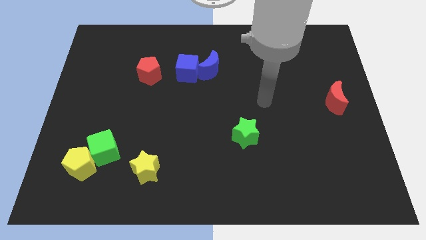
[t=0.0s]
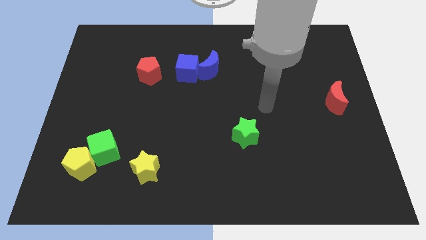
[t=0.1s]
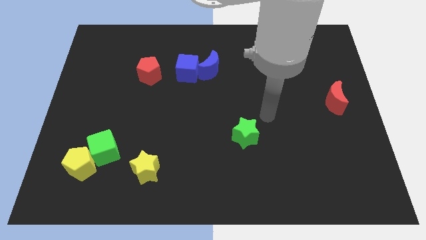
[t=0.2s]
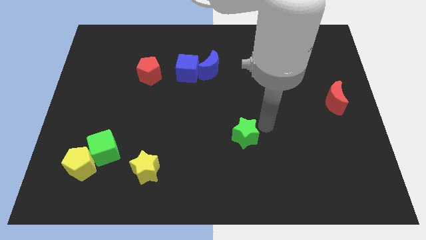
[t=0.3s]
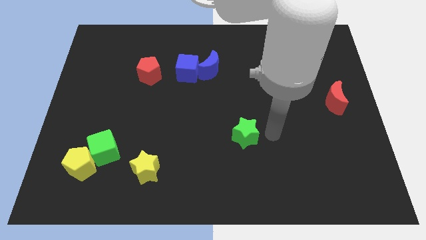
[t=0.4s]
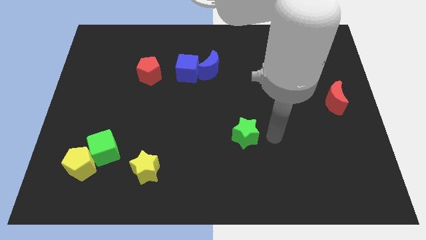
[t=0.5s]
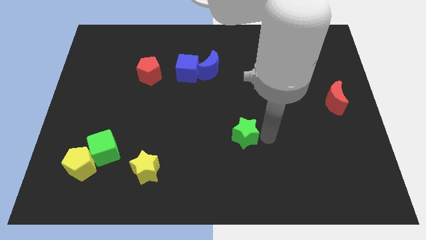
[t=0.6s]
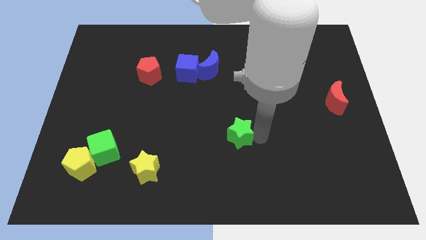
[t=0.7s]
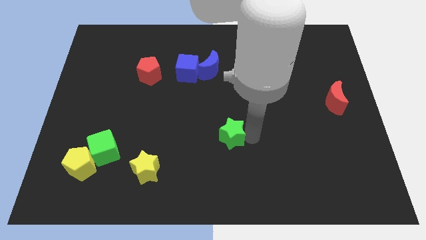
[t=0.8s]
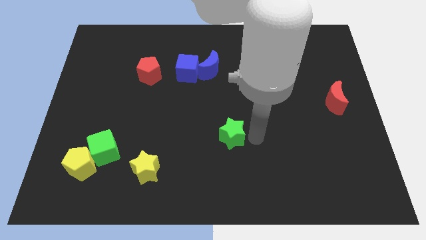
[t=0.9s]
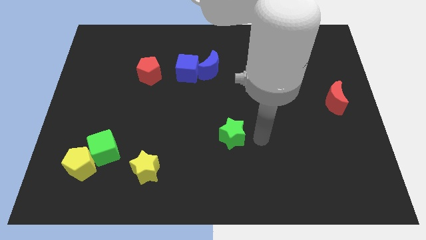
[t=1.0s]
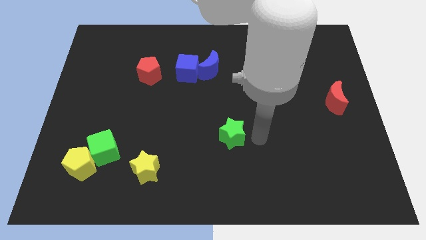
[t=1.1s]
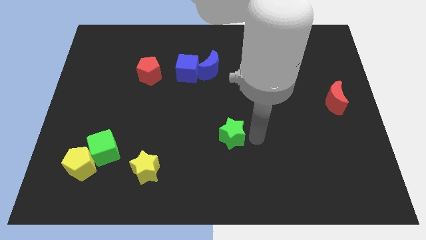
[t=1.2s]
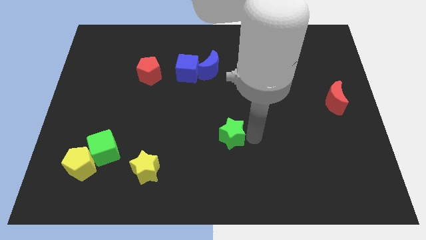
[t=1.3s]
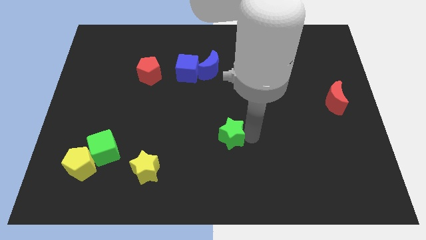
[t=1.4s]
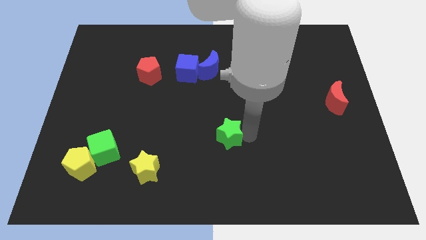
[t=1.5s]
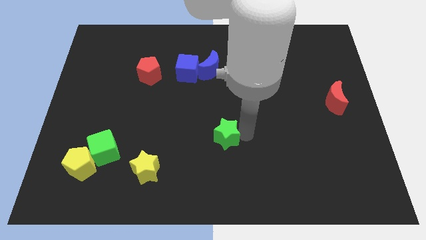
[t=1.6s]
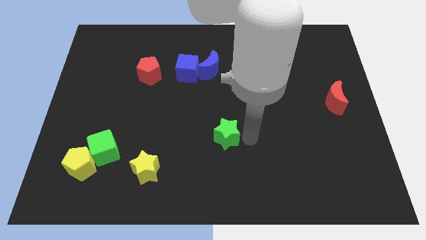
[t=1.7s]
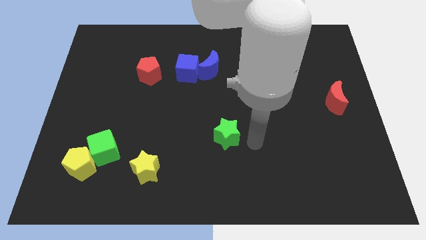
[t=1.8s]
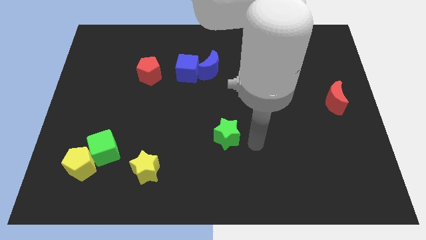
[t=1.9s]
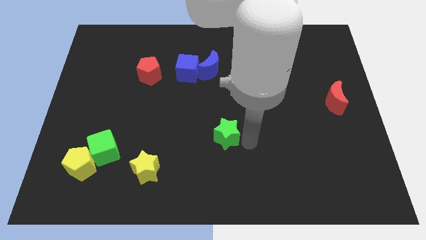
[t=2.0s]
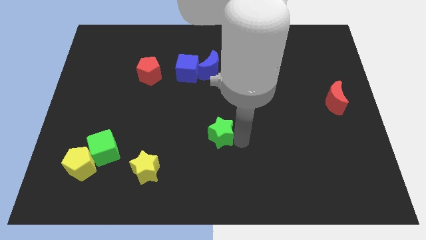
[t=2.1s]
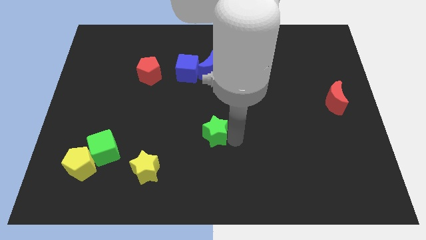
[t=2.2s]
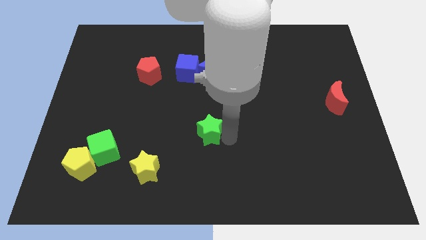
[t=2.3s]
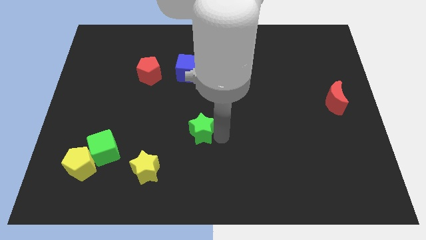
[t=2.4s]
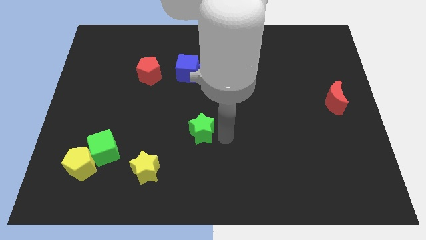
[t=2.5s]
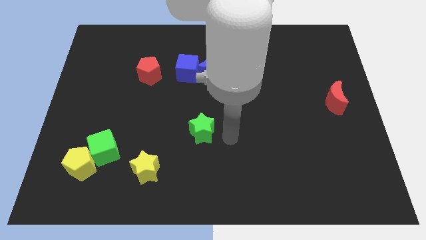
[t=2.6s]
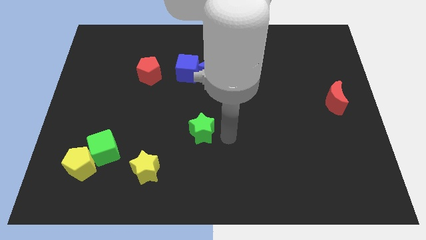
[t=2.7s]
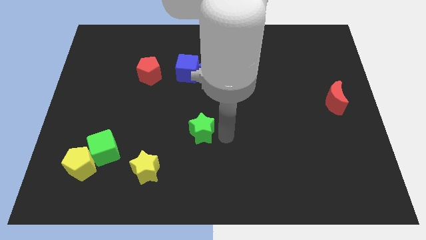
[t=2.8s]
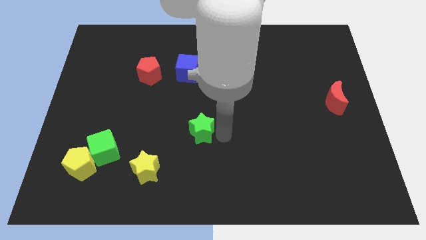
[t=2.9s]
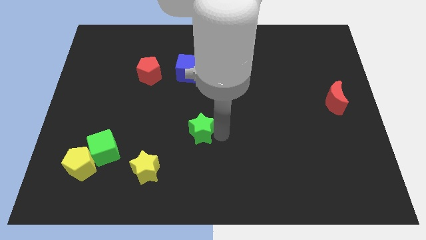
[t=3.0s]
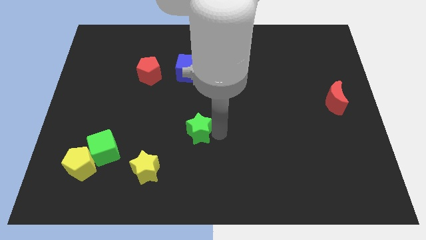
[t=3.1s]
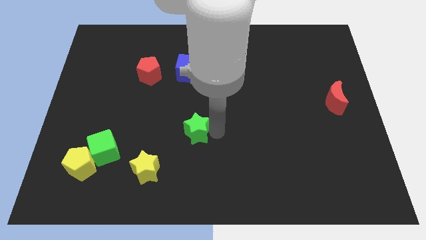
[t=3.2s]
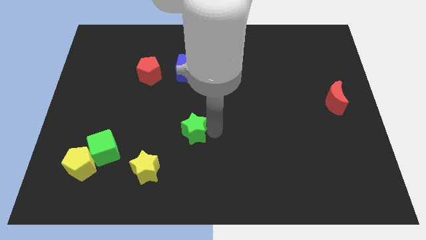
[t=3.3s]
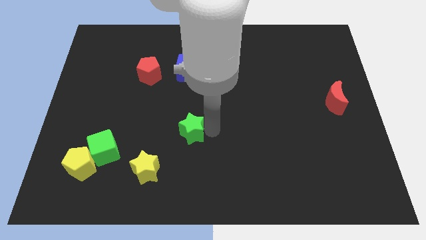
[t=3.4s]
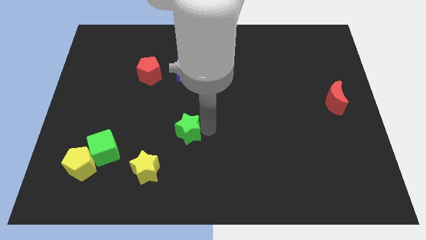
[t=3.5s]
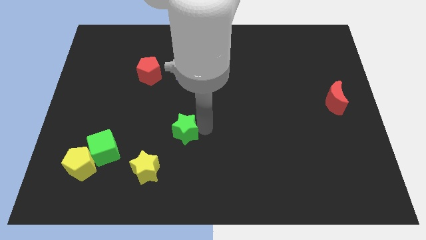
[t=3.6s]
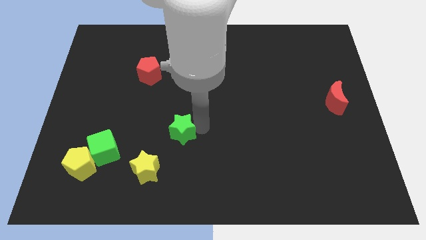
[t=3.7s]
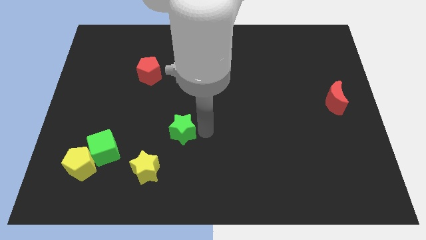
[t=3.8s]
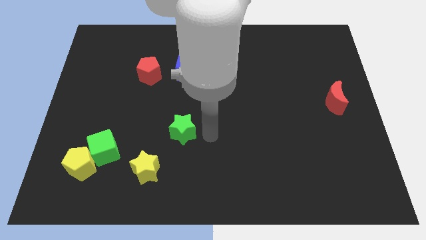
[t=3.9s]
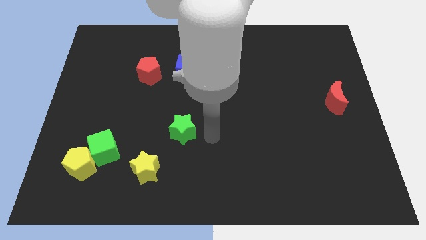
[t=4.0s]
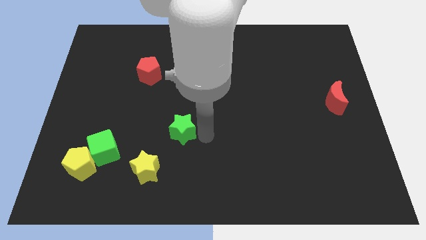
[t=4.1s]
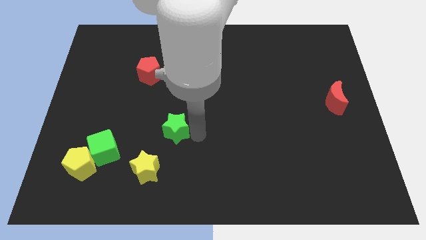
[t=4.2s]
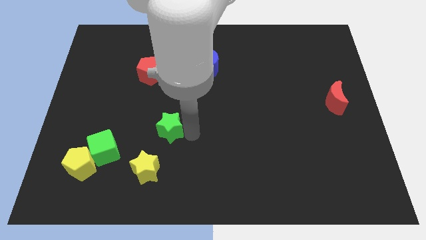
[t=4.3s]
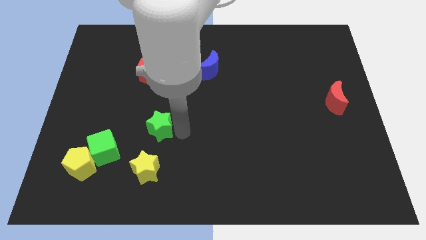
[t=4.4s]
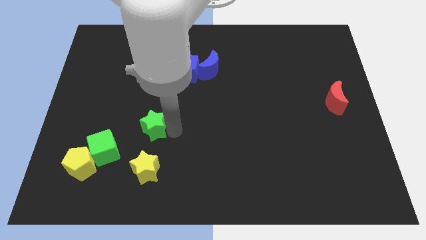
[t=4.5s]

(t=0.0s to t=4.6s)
move the green star left

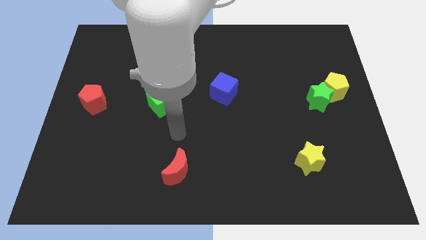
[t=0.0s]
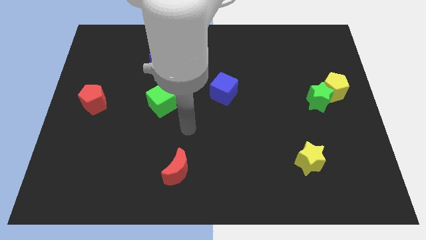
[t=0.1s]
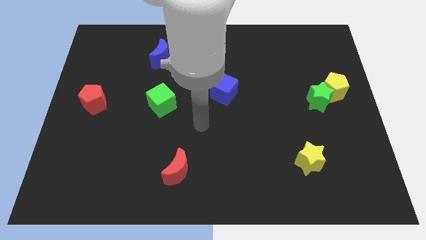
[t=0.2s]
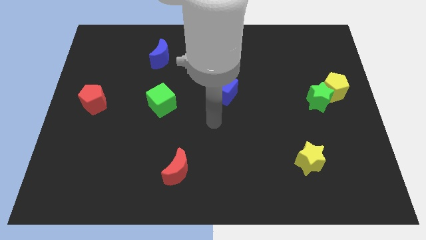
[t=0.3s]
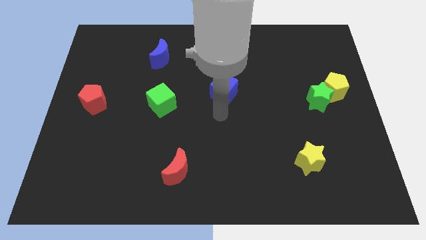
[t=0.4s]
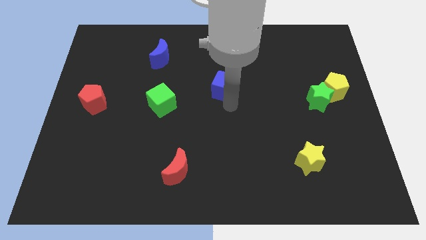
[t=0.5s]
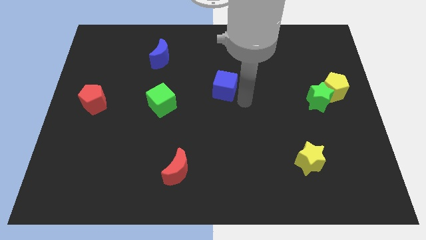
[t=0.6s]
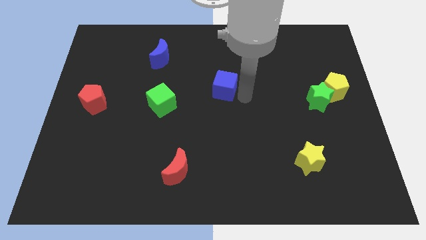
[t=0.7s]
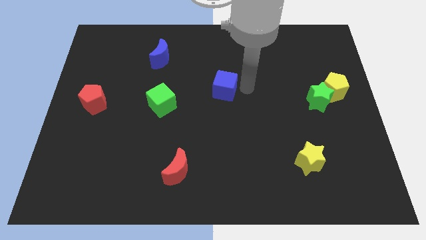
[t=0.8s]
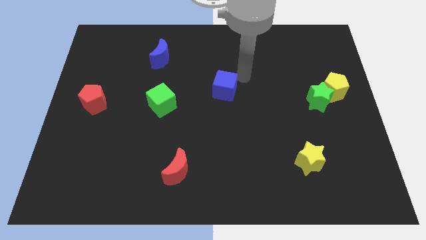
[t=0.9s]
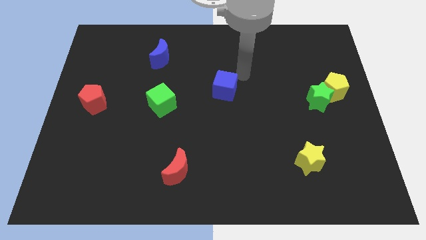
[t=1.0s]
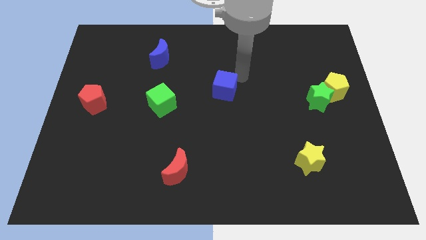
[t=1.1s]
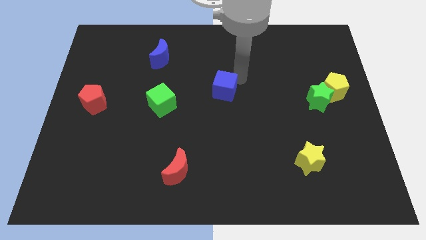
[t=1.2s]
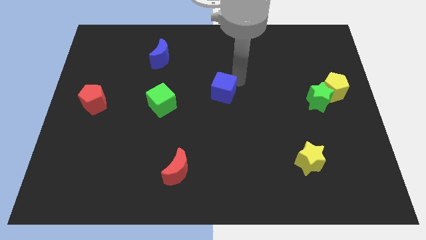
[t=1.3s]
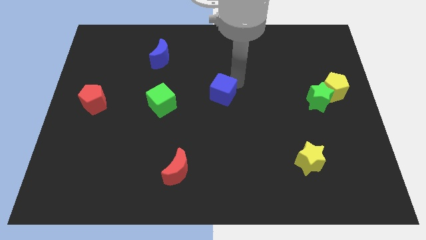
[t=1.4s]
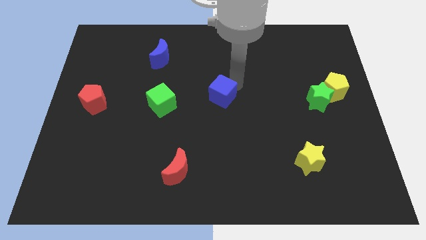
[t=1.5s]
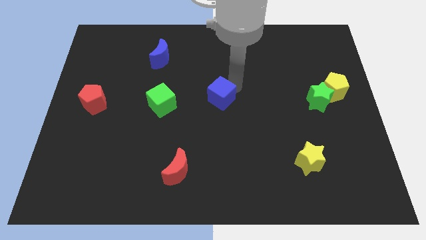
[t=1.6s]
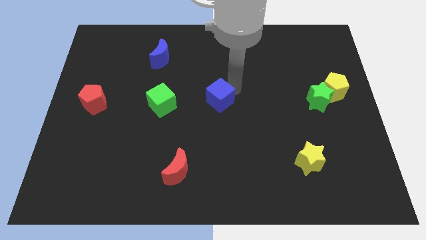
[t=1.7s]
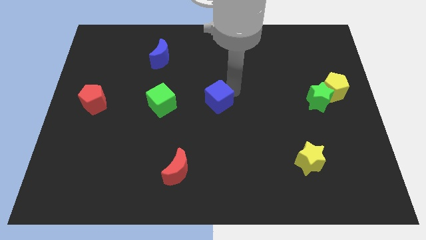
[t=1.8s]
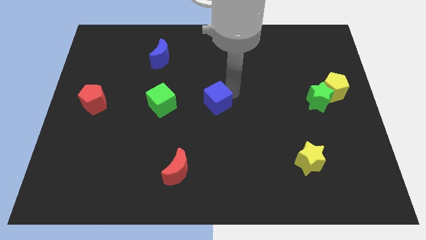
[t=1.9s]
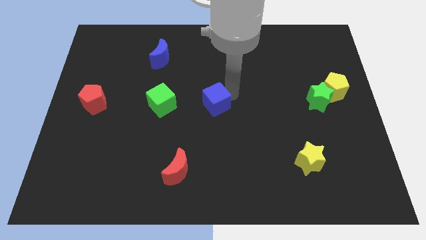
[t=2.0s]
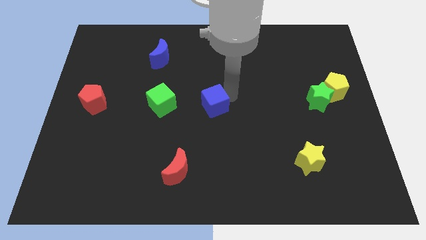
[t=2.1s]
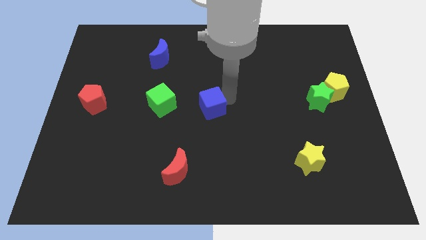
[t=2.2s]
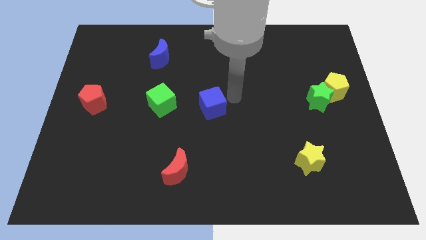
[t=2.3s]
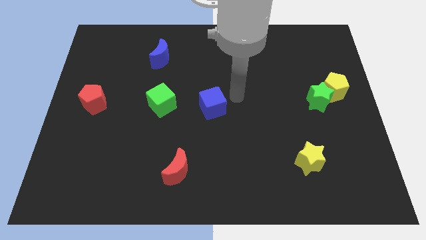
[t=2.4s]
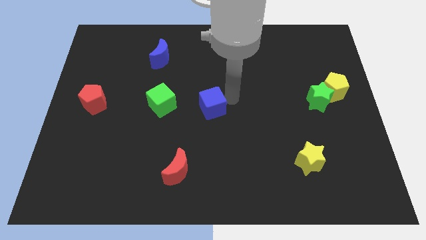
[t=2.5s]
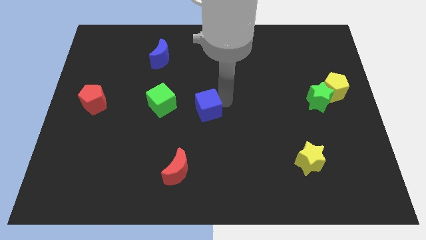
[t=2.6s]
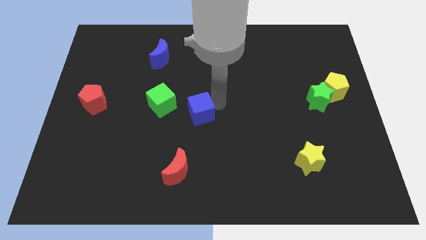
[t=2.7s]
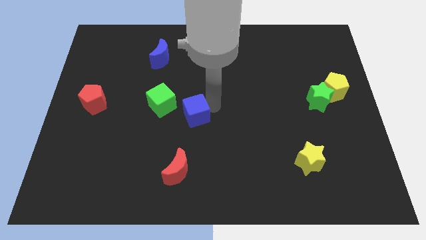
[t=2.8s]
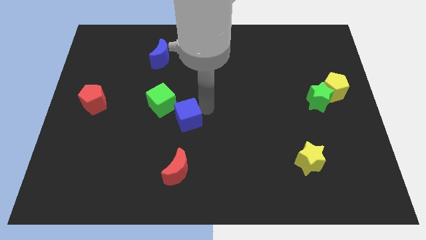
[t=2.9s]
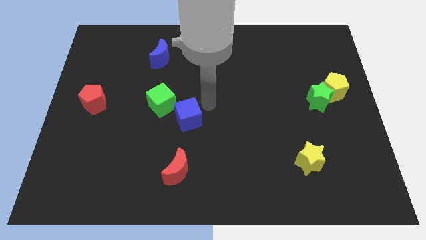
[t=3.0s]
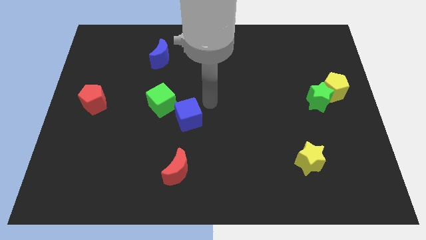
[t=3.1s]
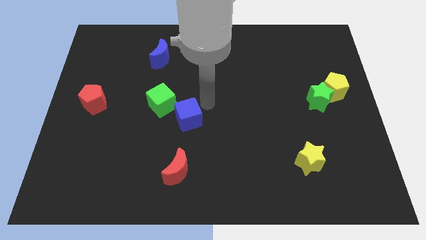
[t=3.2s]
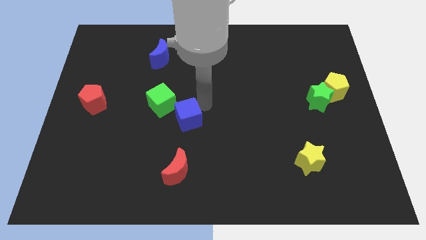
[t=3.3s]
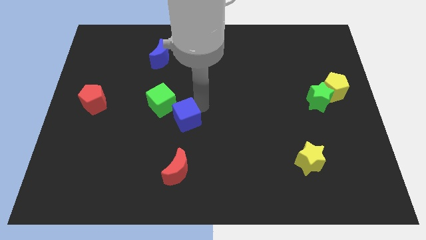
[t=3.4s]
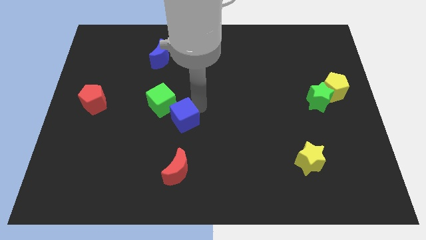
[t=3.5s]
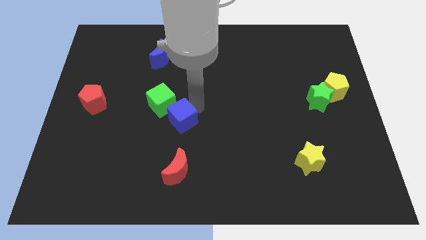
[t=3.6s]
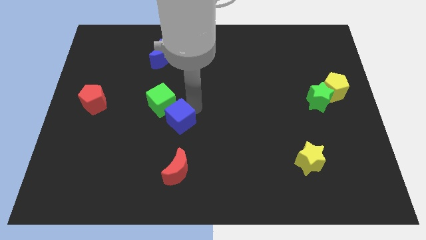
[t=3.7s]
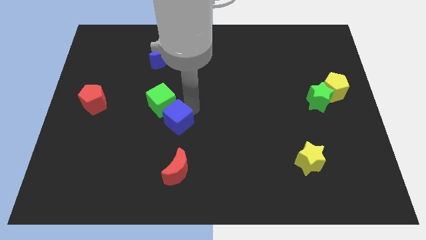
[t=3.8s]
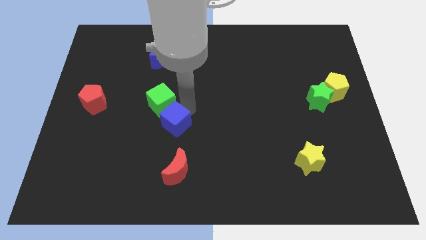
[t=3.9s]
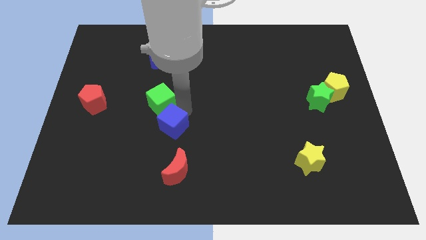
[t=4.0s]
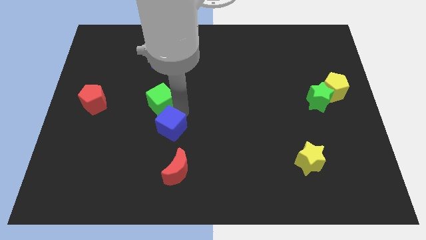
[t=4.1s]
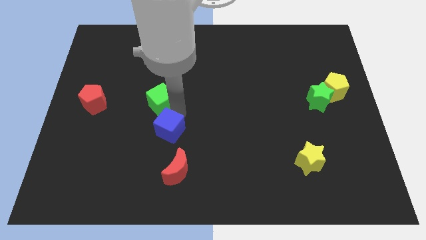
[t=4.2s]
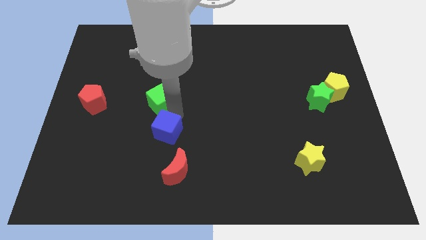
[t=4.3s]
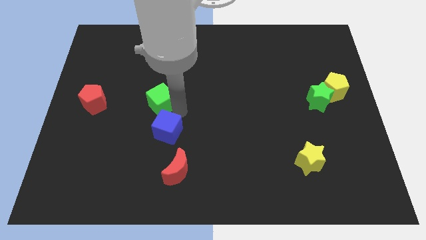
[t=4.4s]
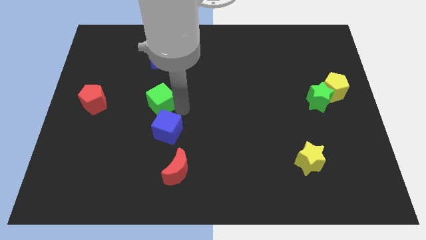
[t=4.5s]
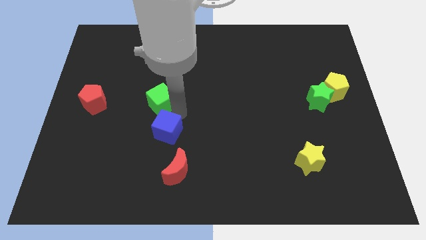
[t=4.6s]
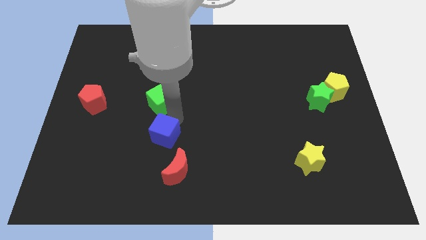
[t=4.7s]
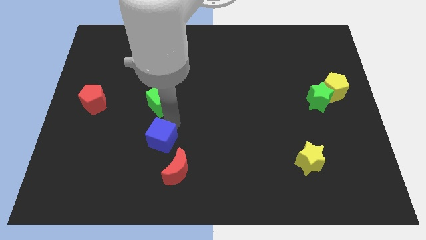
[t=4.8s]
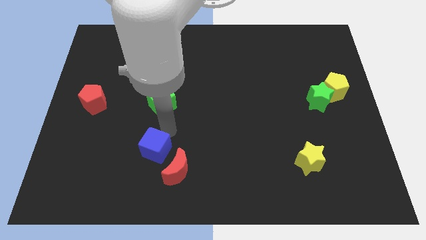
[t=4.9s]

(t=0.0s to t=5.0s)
push the blue cube downwards and then left
